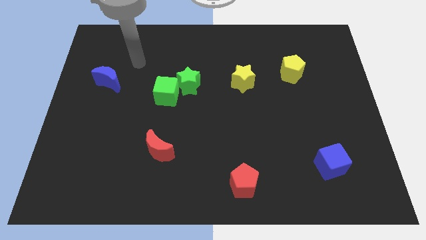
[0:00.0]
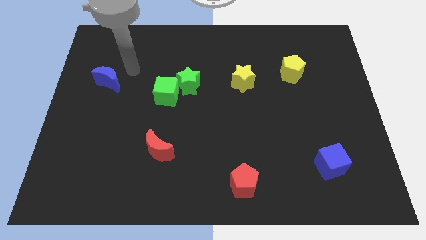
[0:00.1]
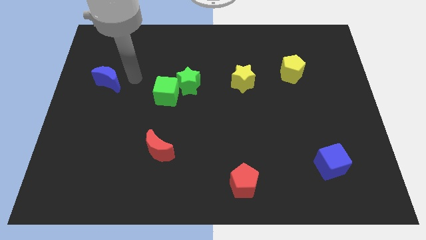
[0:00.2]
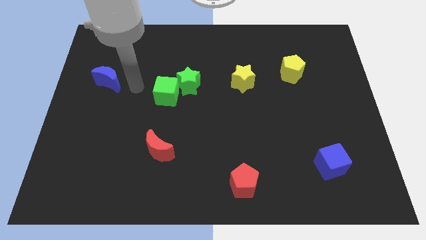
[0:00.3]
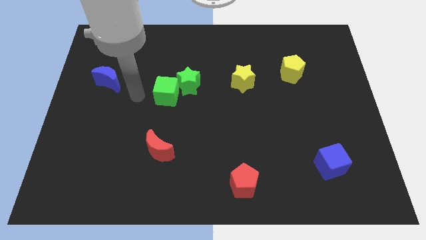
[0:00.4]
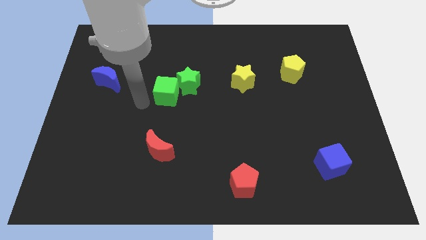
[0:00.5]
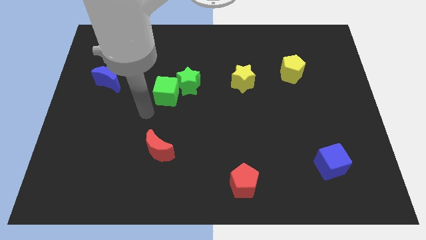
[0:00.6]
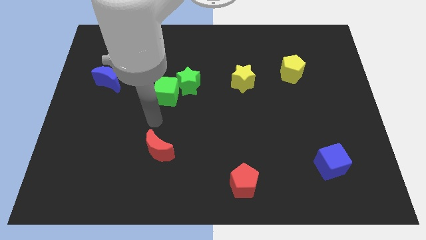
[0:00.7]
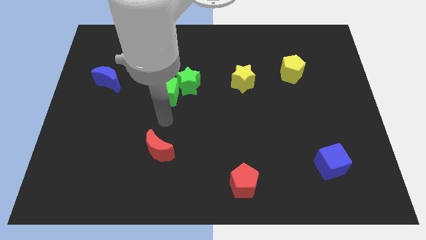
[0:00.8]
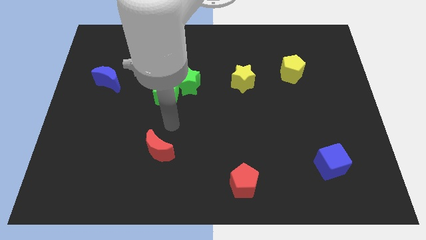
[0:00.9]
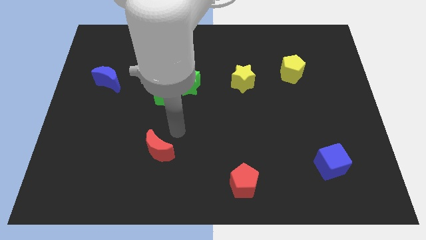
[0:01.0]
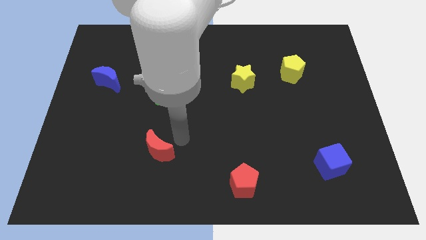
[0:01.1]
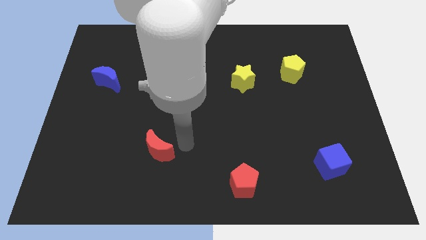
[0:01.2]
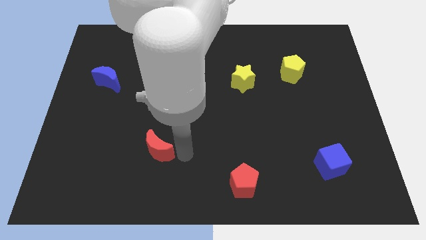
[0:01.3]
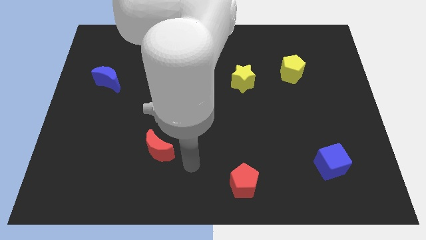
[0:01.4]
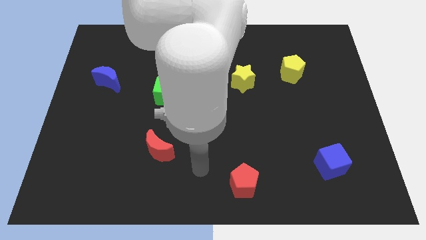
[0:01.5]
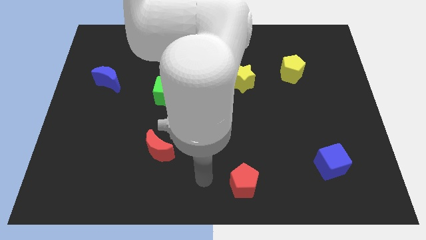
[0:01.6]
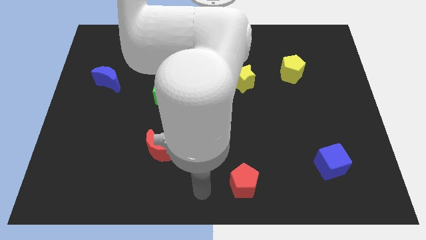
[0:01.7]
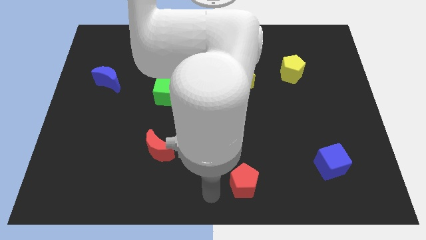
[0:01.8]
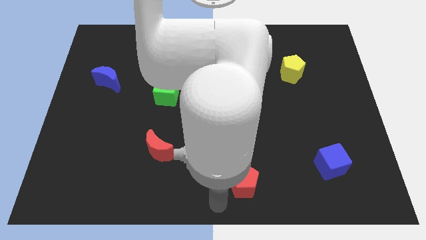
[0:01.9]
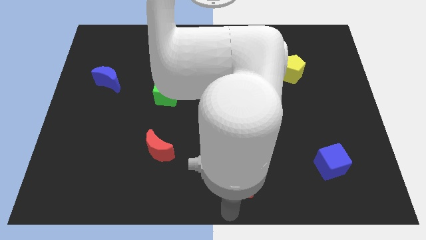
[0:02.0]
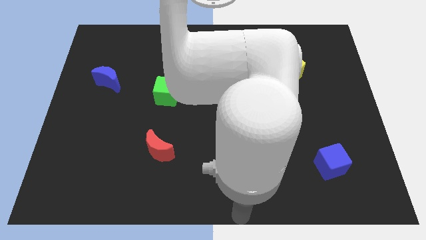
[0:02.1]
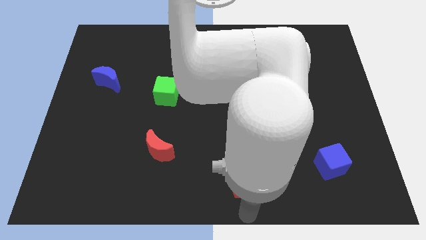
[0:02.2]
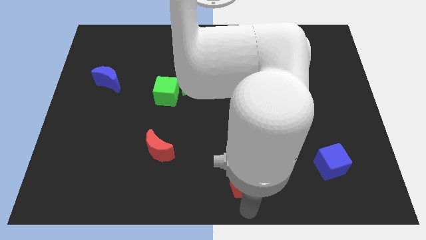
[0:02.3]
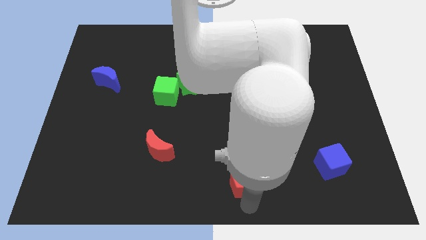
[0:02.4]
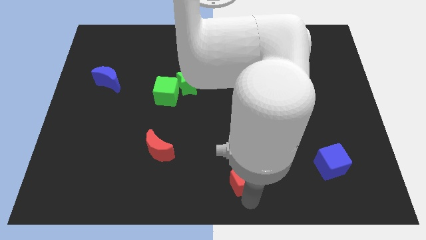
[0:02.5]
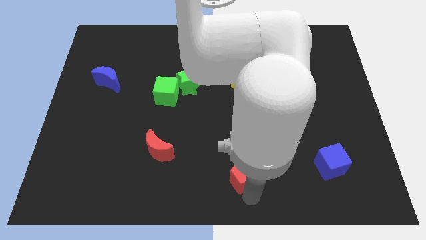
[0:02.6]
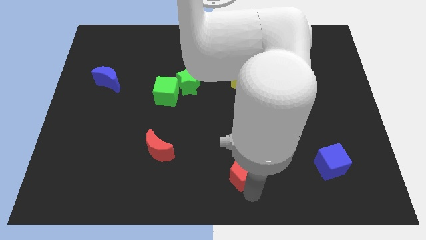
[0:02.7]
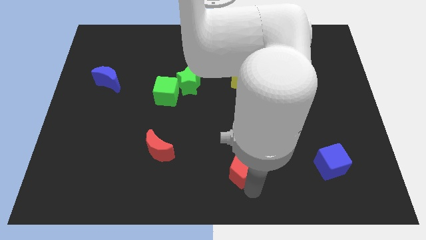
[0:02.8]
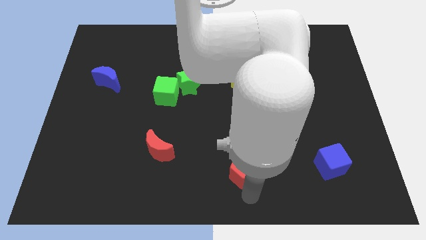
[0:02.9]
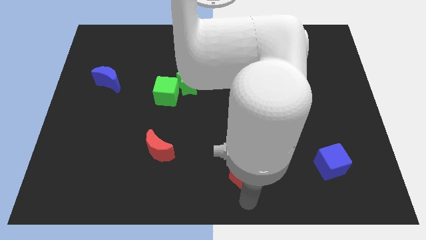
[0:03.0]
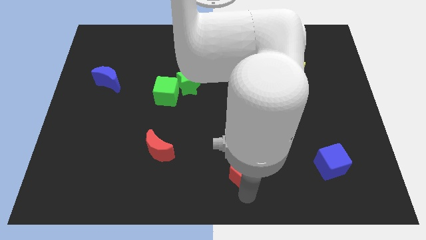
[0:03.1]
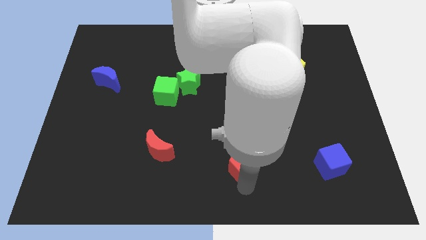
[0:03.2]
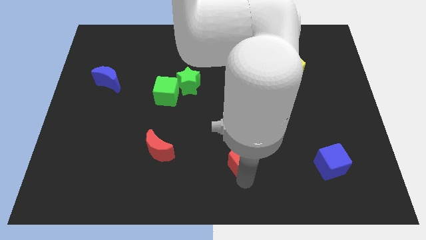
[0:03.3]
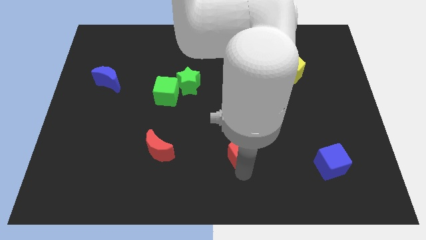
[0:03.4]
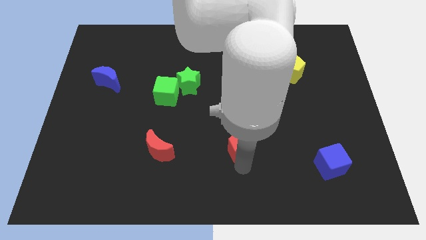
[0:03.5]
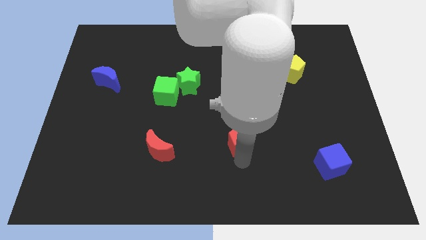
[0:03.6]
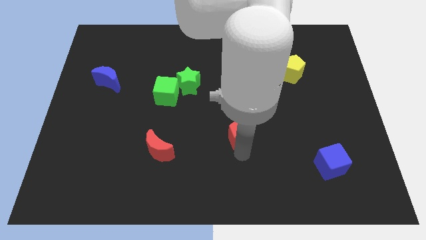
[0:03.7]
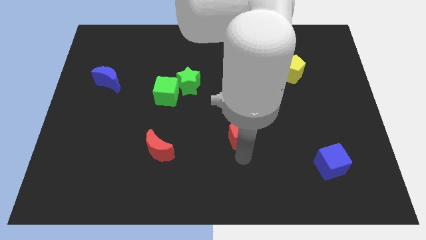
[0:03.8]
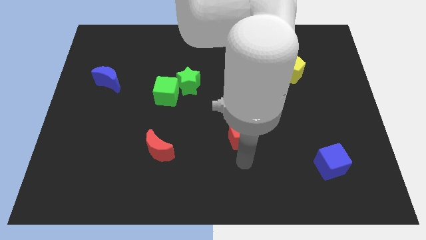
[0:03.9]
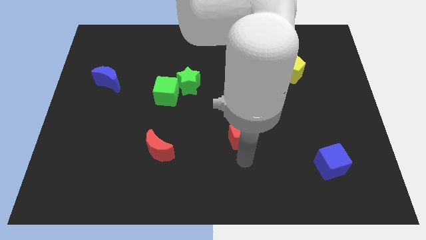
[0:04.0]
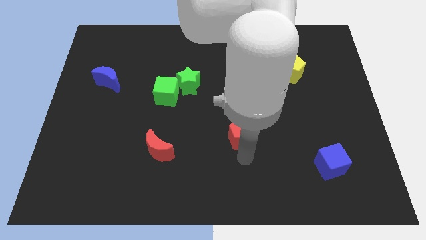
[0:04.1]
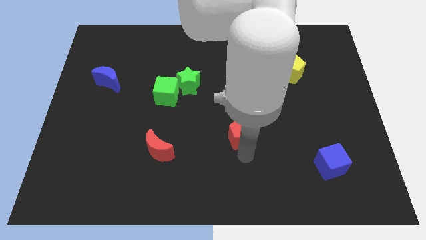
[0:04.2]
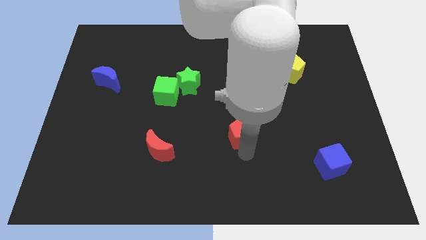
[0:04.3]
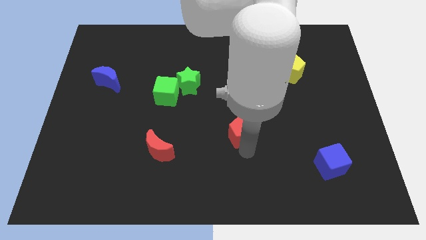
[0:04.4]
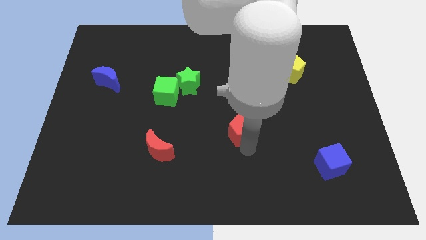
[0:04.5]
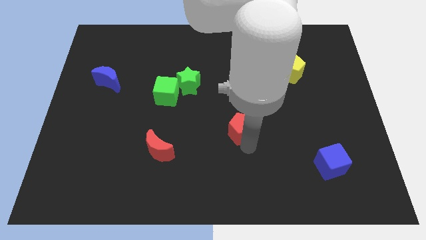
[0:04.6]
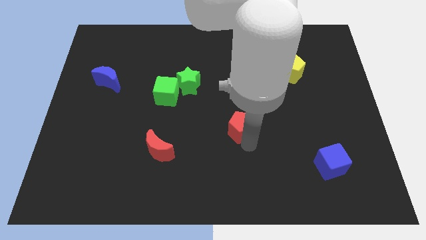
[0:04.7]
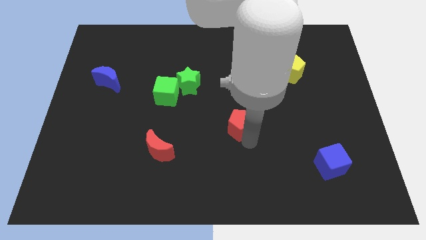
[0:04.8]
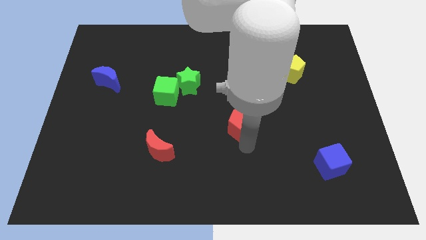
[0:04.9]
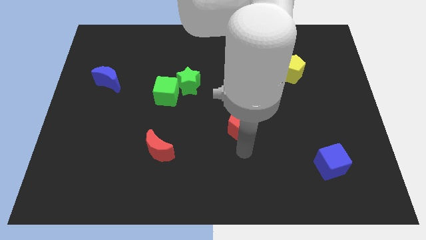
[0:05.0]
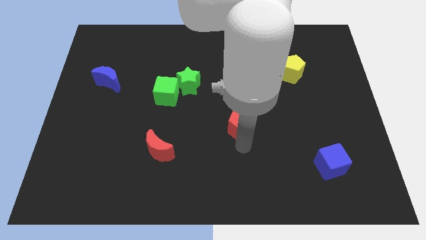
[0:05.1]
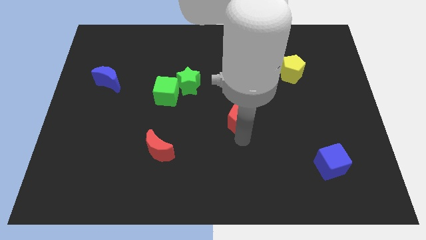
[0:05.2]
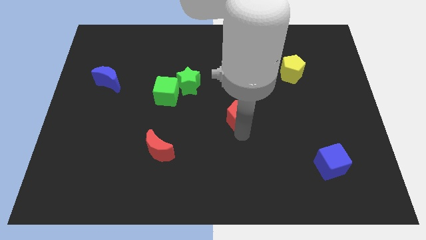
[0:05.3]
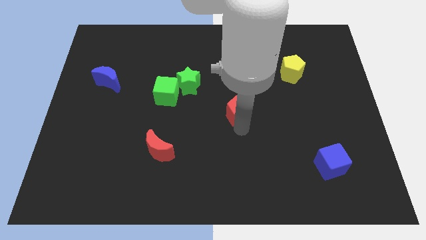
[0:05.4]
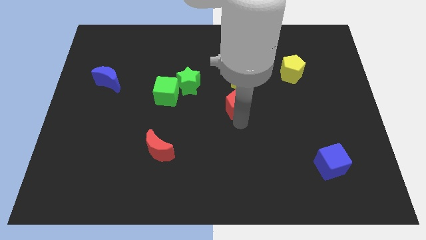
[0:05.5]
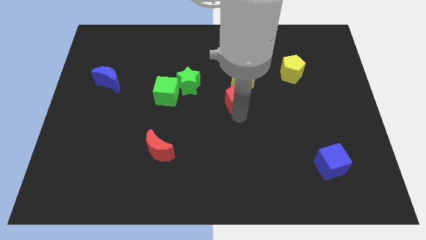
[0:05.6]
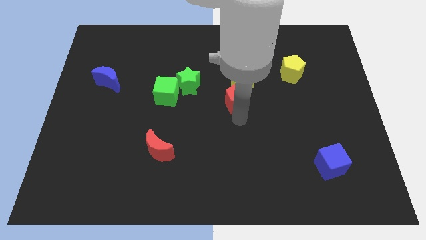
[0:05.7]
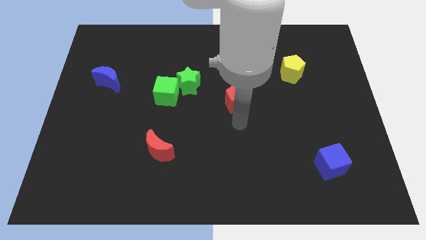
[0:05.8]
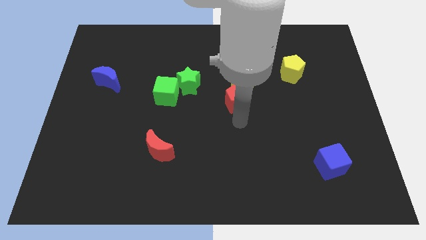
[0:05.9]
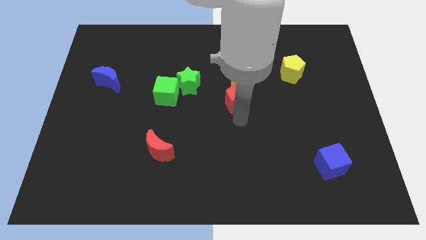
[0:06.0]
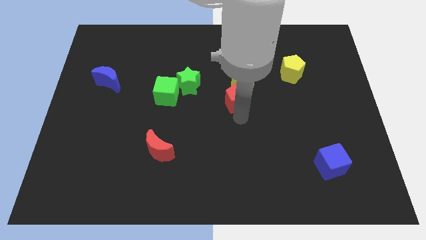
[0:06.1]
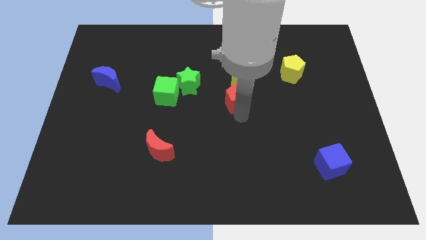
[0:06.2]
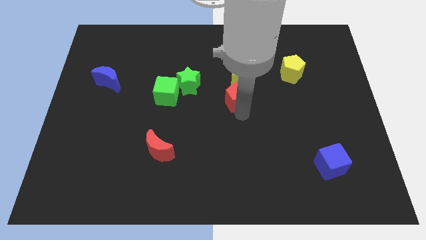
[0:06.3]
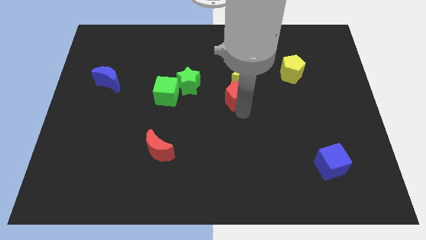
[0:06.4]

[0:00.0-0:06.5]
push the red pentagon to the yellow star

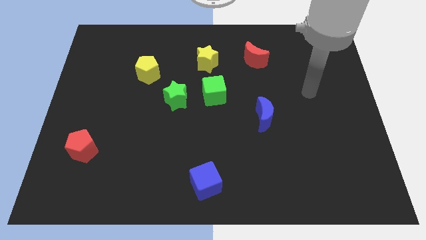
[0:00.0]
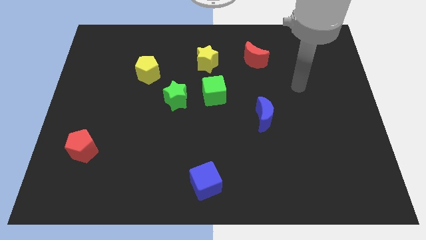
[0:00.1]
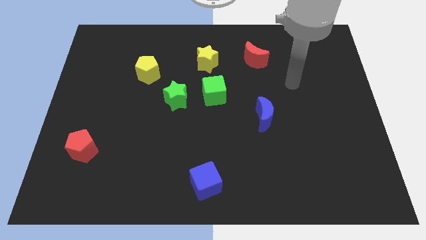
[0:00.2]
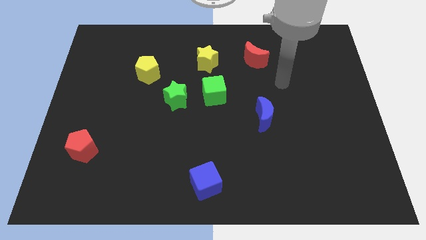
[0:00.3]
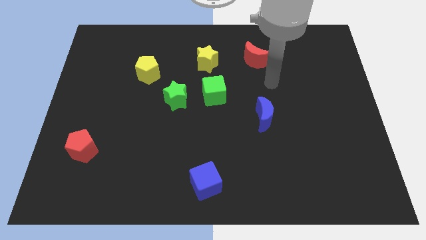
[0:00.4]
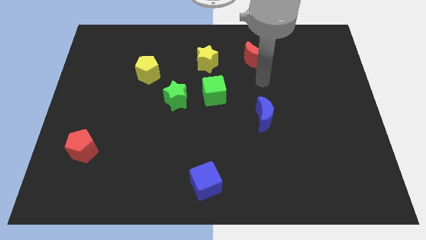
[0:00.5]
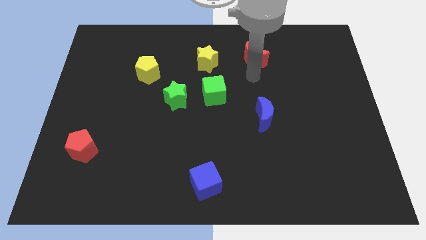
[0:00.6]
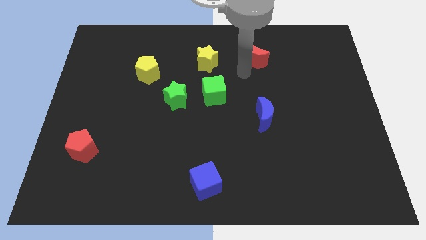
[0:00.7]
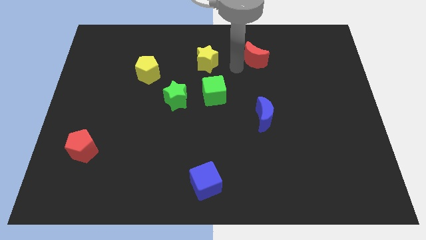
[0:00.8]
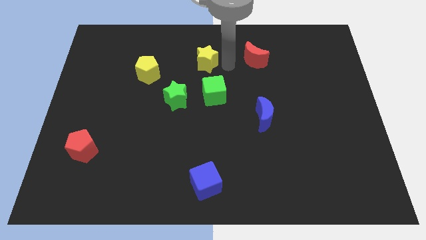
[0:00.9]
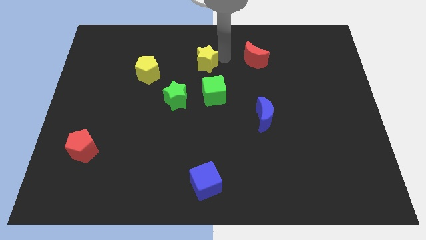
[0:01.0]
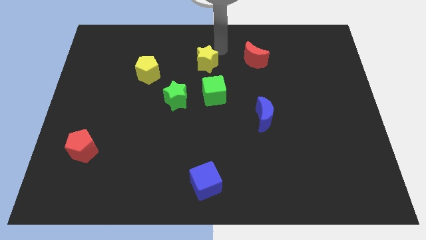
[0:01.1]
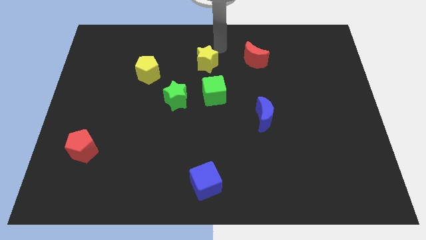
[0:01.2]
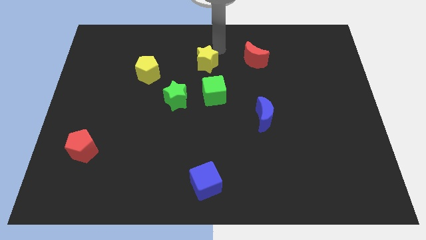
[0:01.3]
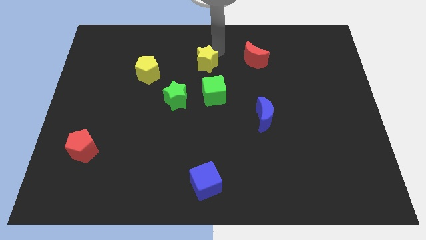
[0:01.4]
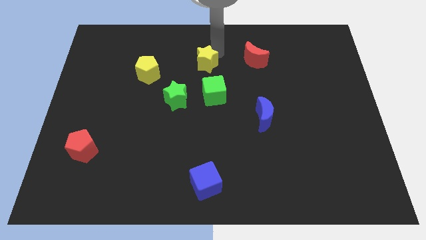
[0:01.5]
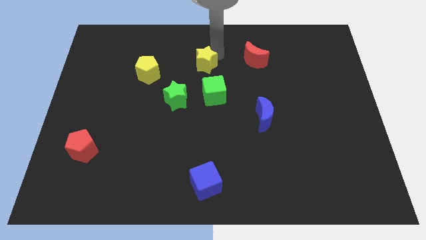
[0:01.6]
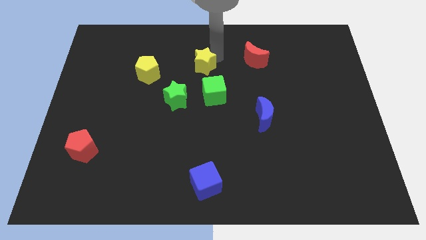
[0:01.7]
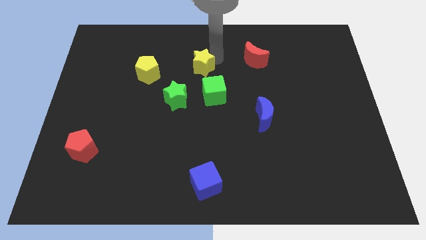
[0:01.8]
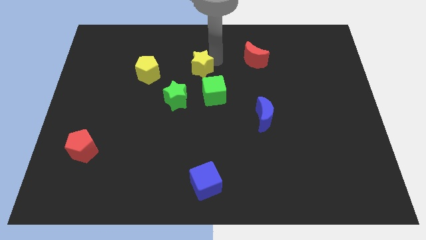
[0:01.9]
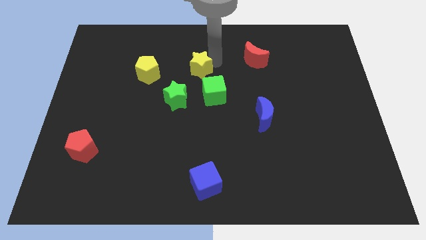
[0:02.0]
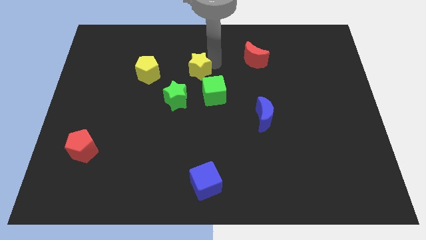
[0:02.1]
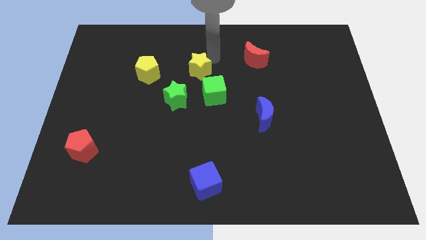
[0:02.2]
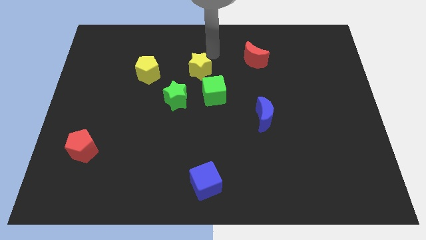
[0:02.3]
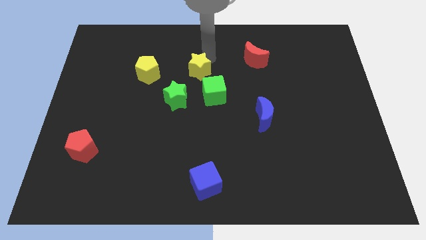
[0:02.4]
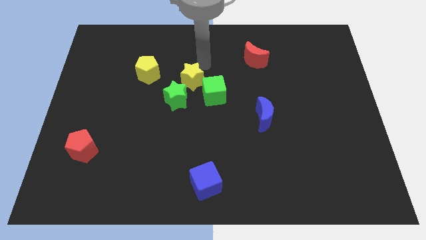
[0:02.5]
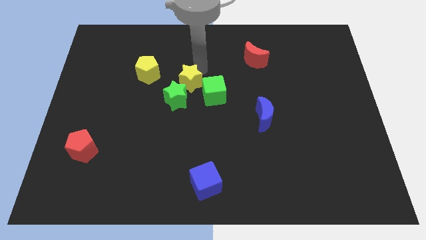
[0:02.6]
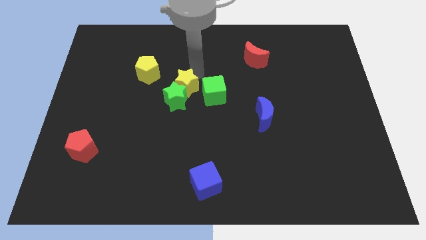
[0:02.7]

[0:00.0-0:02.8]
put the yellow star next to the green star
